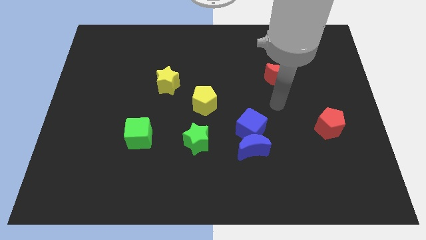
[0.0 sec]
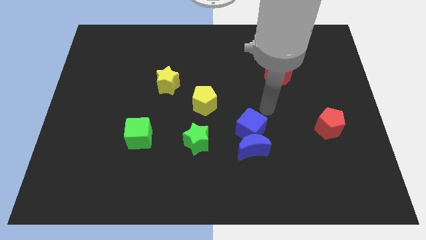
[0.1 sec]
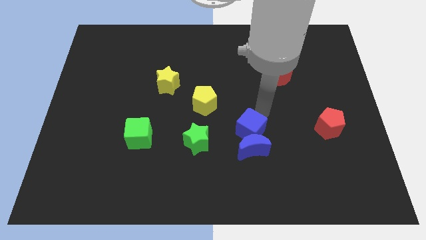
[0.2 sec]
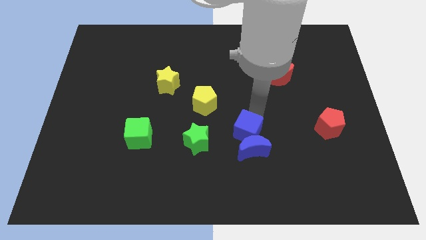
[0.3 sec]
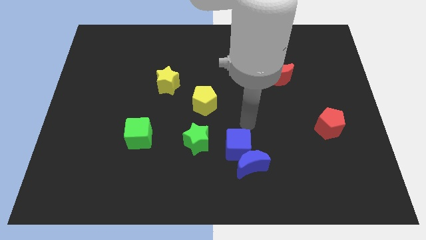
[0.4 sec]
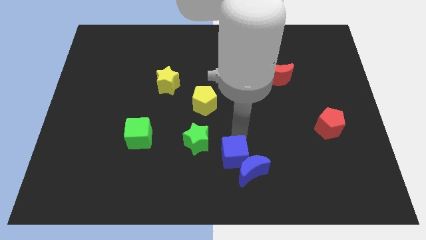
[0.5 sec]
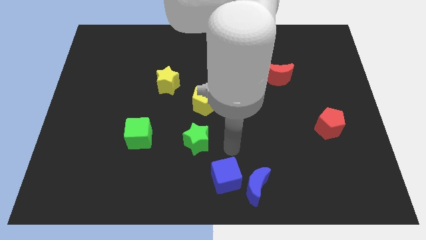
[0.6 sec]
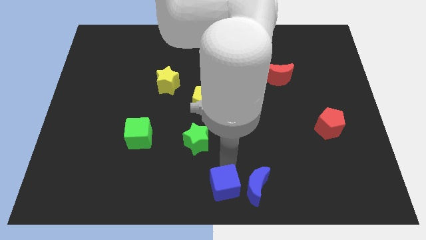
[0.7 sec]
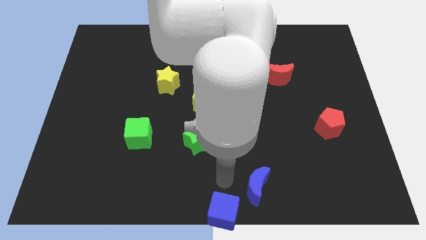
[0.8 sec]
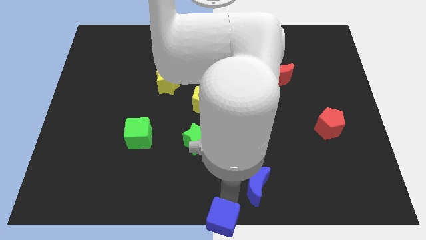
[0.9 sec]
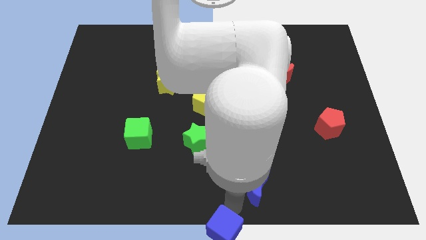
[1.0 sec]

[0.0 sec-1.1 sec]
separate the blue moon from the blue cube

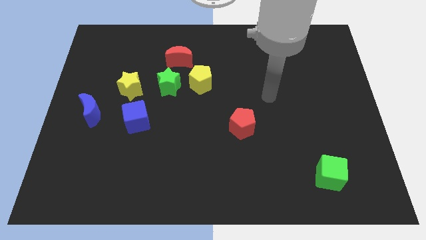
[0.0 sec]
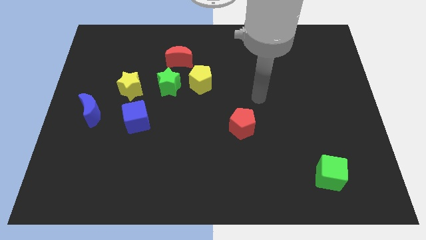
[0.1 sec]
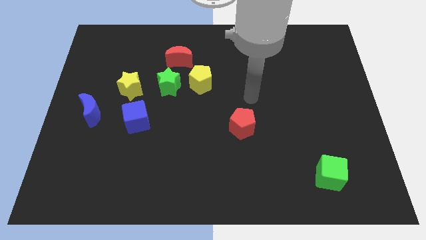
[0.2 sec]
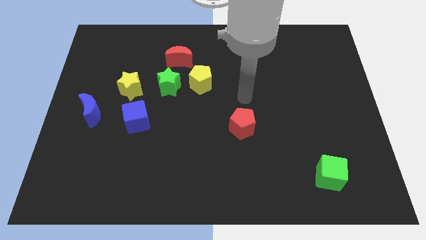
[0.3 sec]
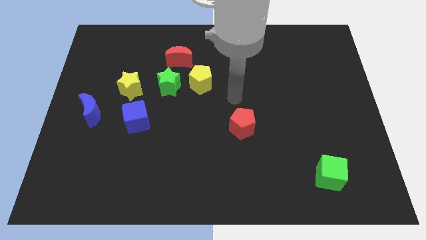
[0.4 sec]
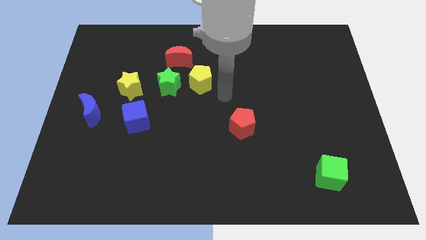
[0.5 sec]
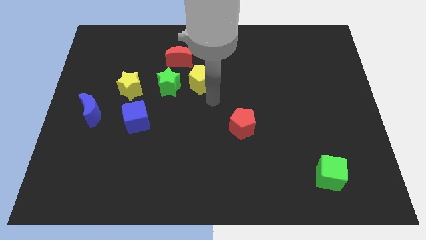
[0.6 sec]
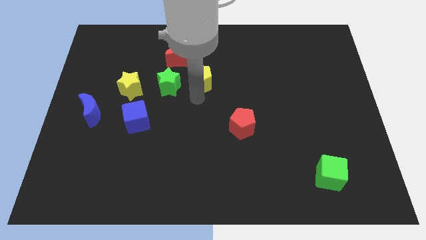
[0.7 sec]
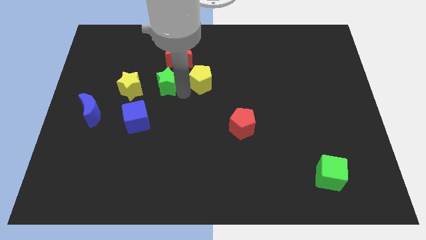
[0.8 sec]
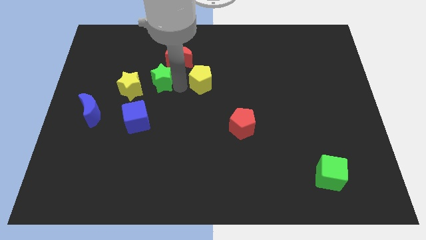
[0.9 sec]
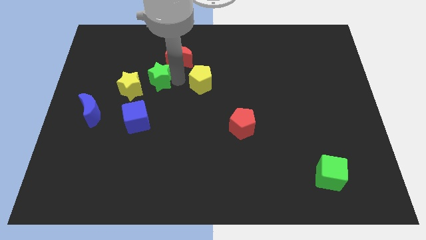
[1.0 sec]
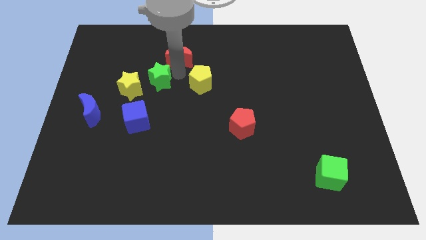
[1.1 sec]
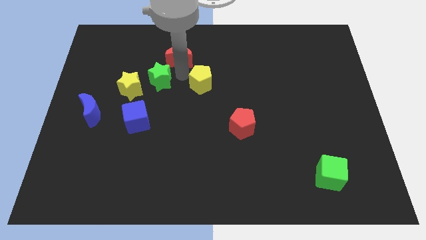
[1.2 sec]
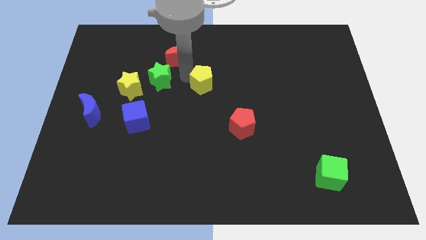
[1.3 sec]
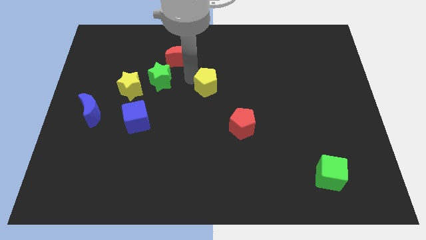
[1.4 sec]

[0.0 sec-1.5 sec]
pull the yellow pentagon apart from the green star and red moon

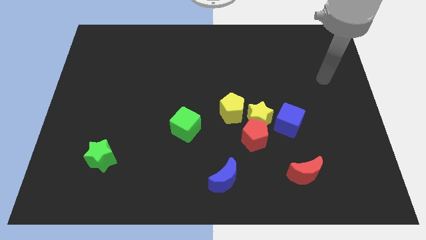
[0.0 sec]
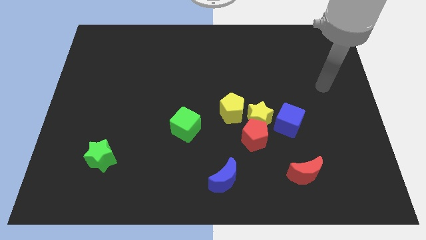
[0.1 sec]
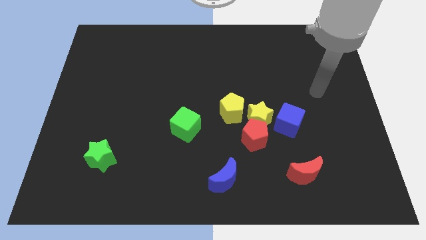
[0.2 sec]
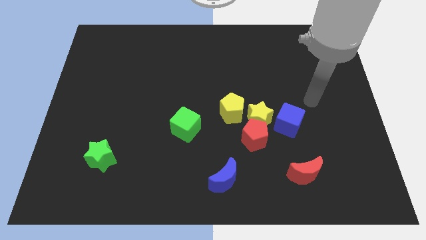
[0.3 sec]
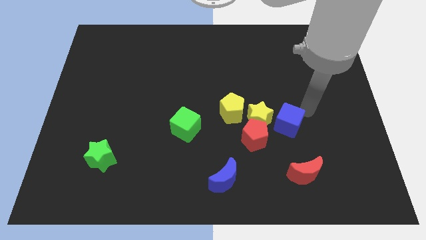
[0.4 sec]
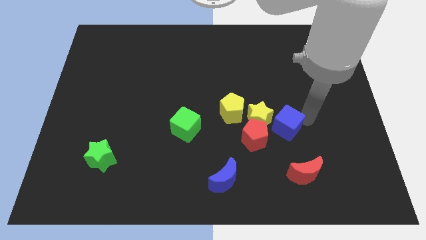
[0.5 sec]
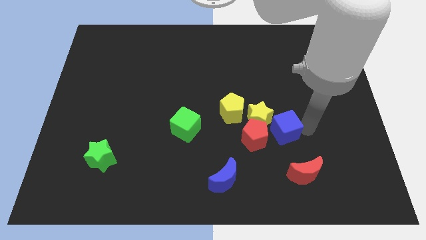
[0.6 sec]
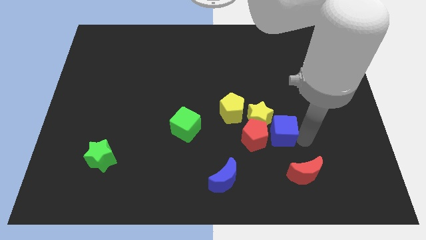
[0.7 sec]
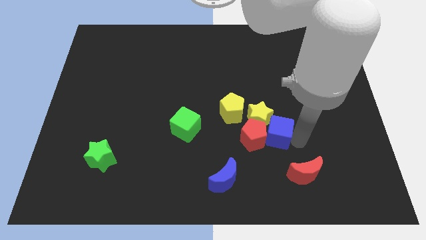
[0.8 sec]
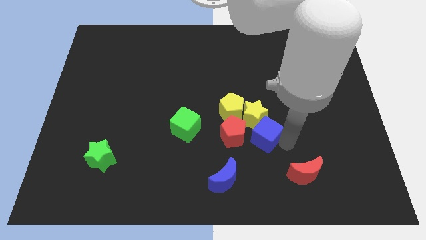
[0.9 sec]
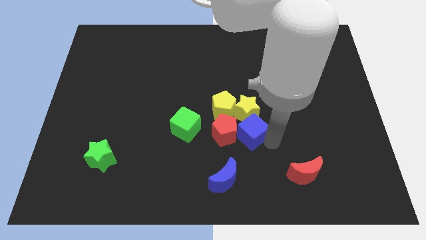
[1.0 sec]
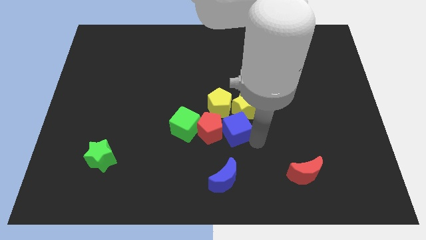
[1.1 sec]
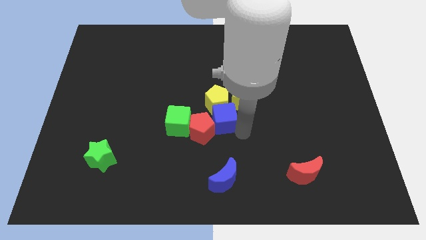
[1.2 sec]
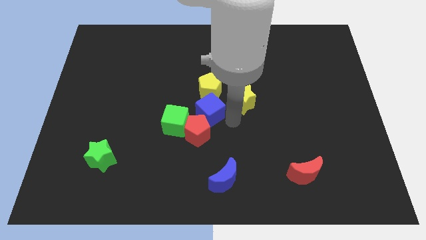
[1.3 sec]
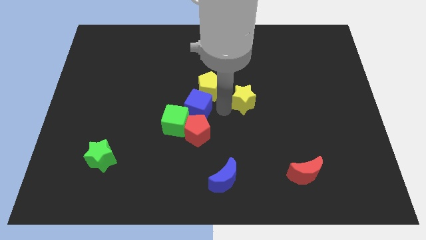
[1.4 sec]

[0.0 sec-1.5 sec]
pull the yellow star apart from the group of blocks

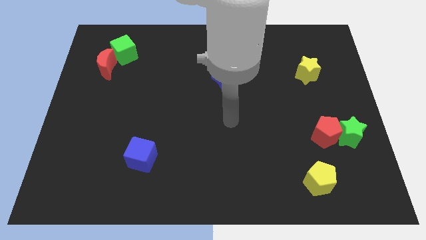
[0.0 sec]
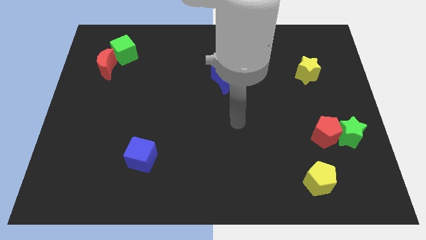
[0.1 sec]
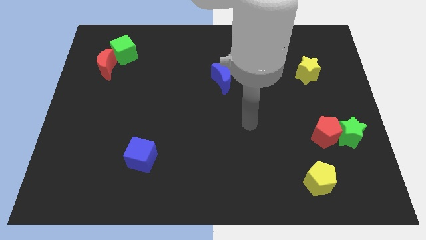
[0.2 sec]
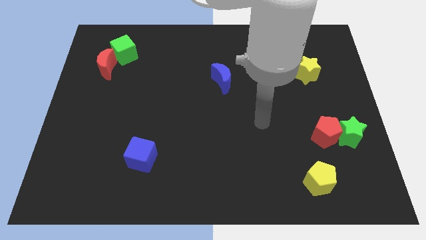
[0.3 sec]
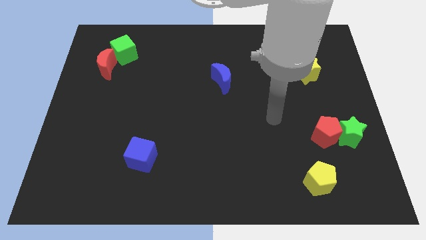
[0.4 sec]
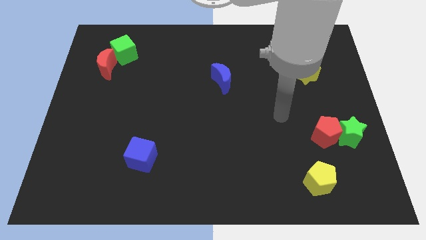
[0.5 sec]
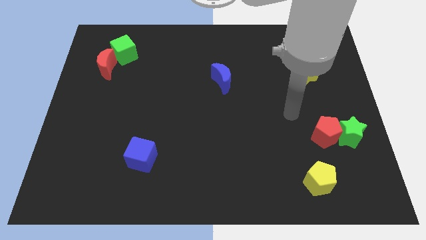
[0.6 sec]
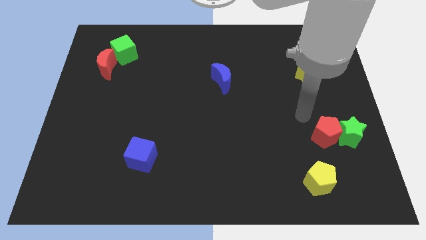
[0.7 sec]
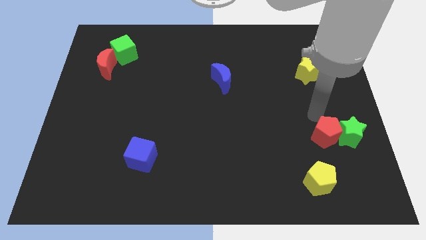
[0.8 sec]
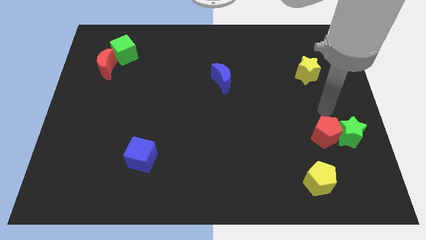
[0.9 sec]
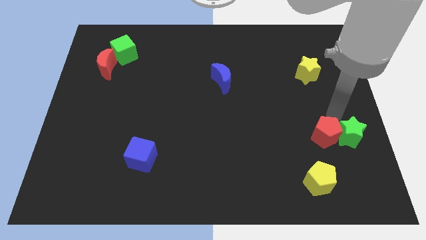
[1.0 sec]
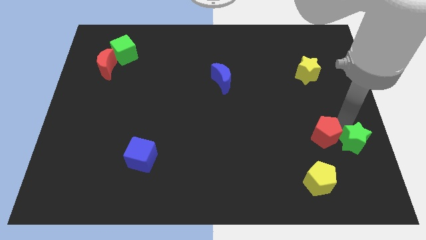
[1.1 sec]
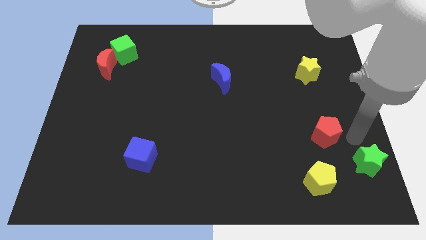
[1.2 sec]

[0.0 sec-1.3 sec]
pull the red pentagon apart from the green star

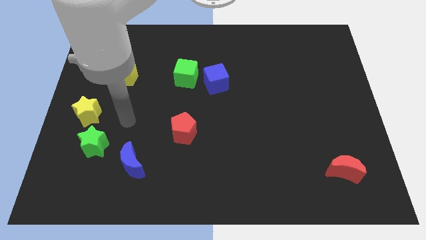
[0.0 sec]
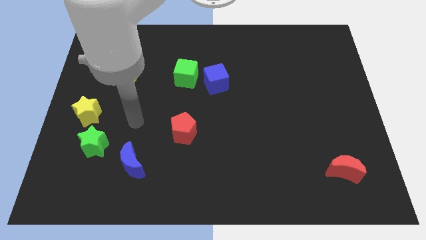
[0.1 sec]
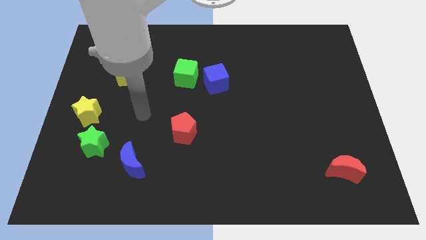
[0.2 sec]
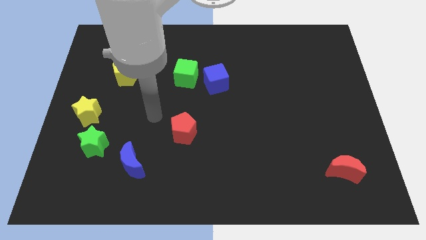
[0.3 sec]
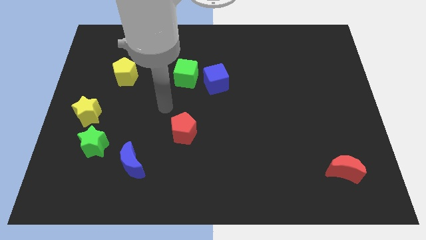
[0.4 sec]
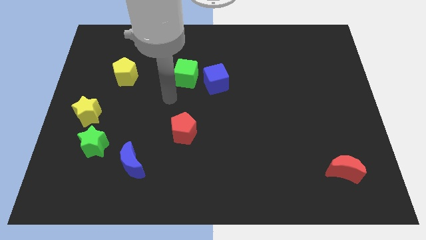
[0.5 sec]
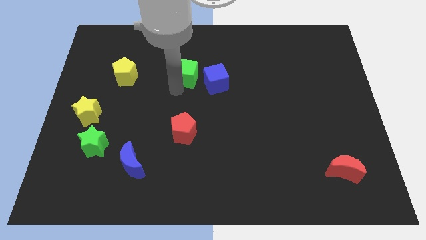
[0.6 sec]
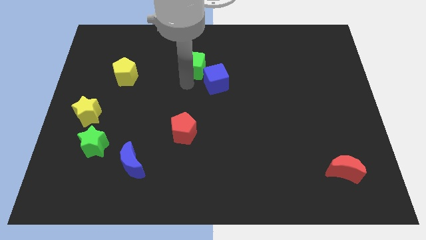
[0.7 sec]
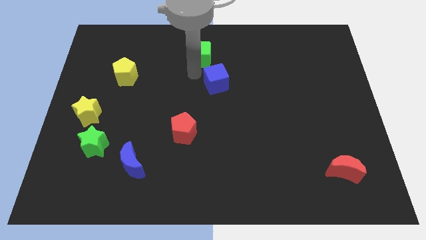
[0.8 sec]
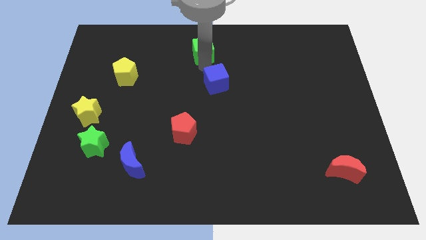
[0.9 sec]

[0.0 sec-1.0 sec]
move the blue cube away from the green cube

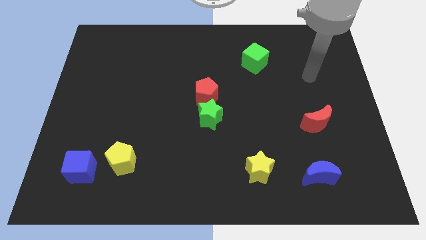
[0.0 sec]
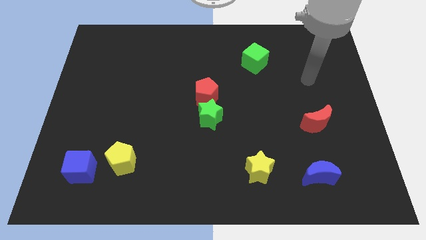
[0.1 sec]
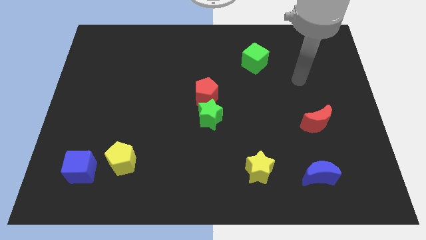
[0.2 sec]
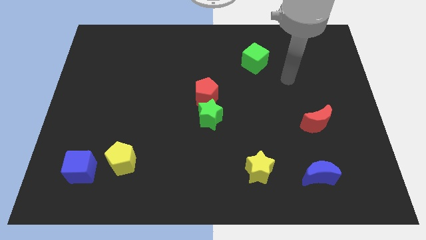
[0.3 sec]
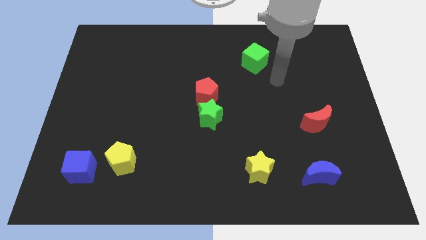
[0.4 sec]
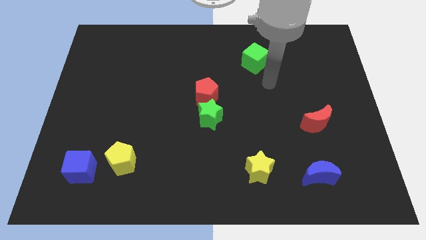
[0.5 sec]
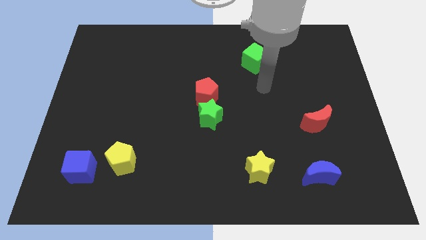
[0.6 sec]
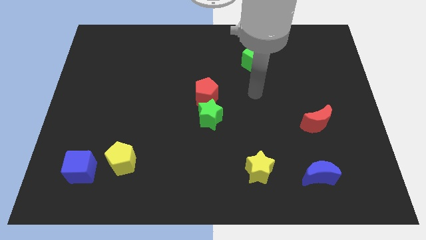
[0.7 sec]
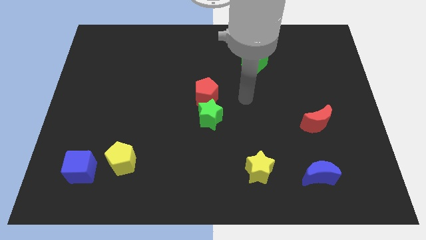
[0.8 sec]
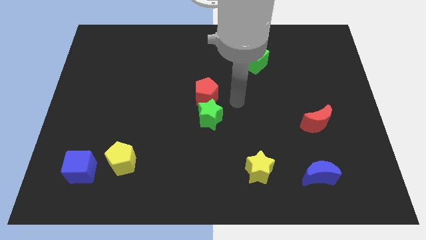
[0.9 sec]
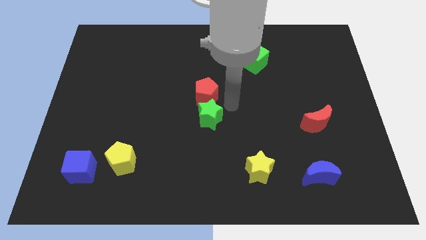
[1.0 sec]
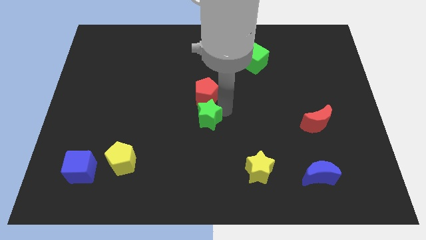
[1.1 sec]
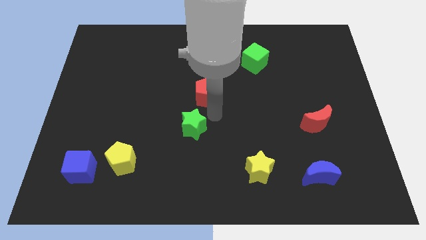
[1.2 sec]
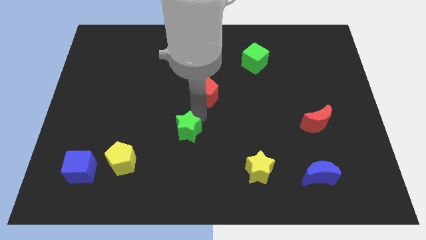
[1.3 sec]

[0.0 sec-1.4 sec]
separate the red pentagon from the green star

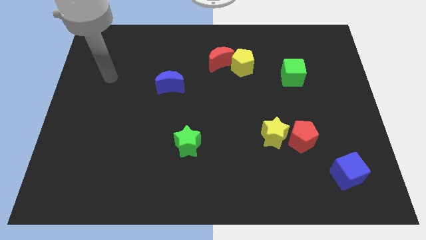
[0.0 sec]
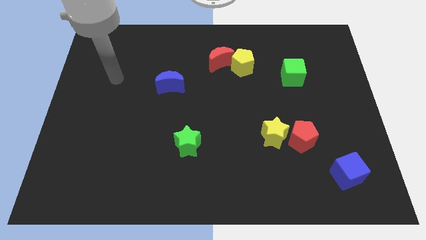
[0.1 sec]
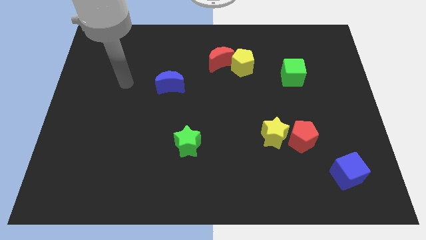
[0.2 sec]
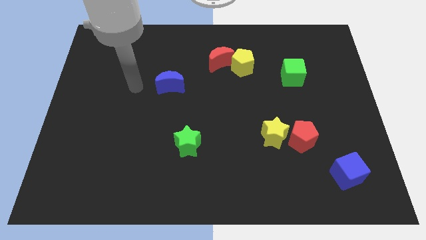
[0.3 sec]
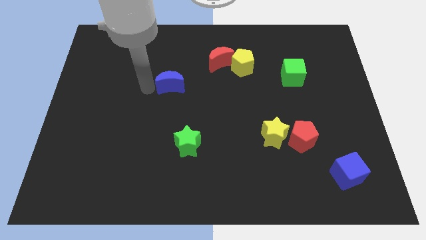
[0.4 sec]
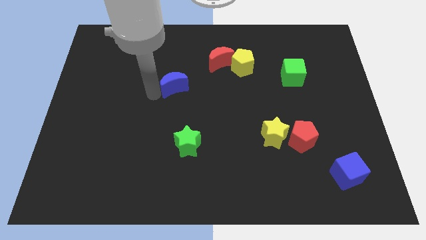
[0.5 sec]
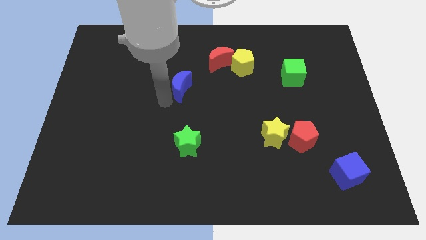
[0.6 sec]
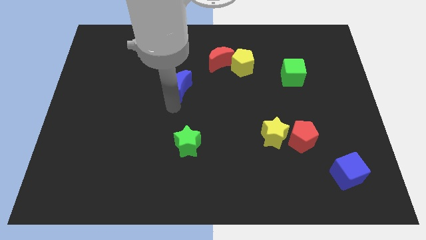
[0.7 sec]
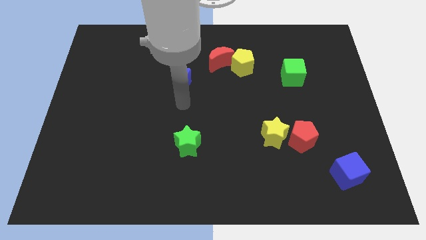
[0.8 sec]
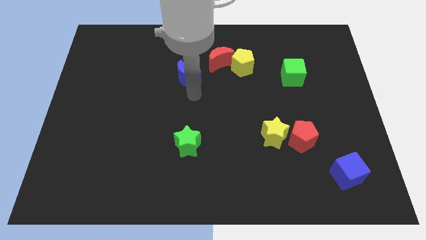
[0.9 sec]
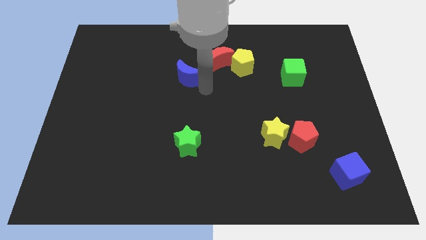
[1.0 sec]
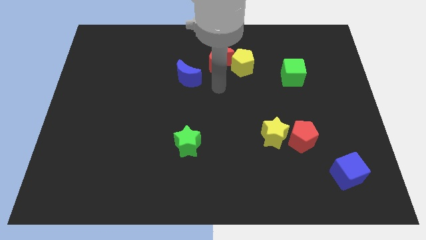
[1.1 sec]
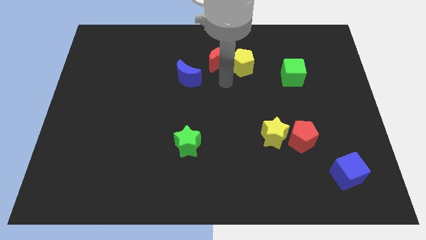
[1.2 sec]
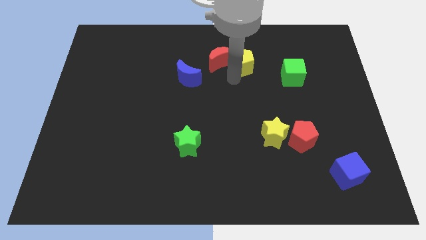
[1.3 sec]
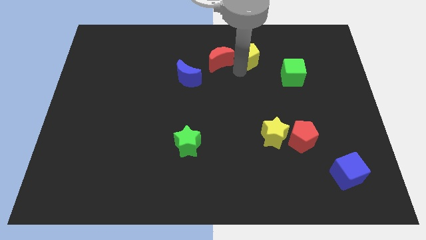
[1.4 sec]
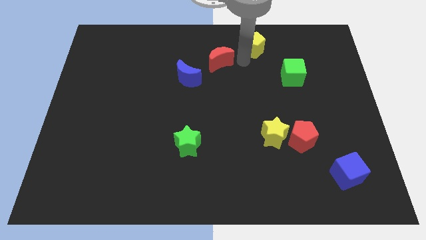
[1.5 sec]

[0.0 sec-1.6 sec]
move the red moon away from the yellow pentagon
